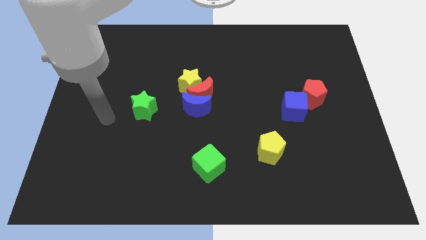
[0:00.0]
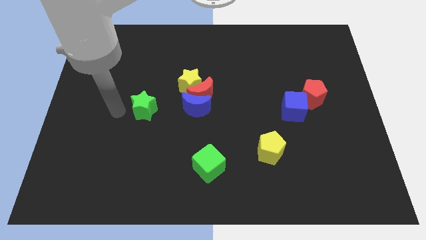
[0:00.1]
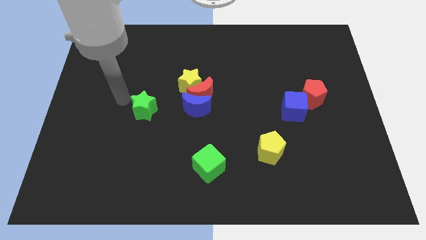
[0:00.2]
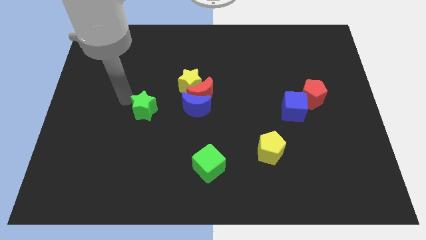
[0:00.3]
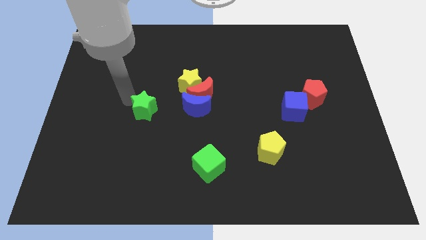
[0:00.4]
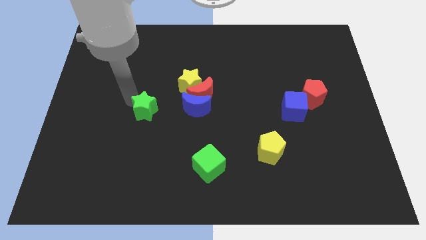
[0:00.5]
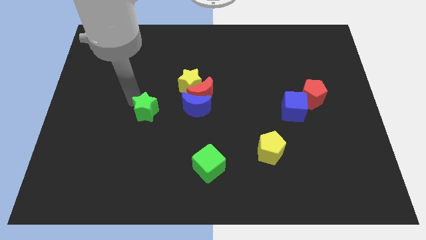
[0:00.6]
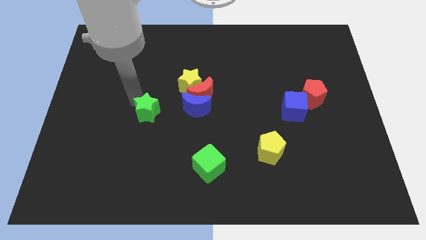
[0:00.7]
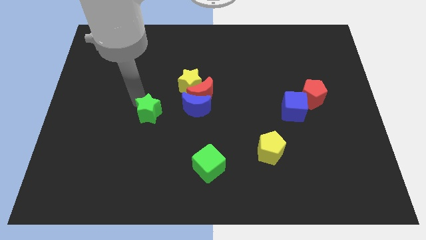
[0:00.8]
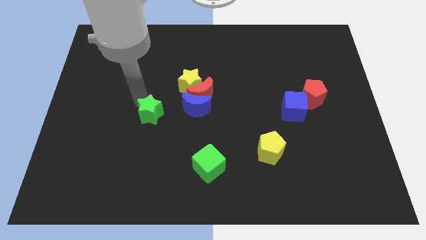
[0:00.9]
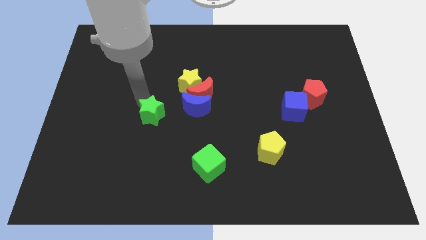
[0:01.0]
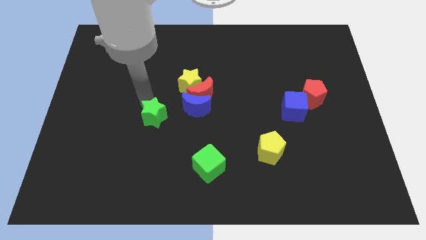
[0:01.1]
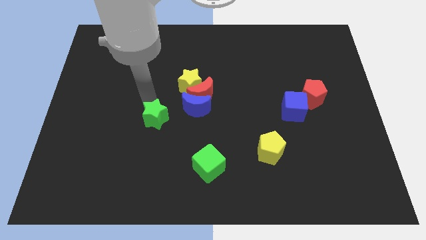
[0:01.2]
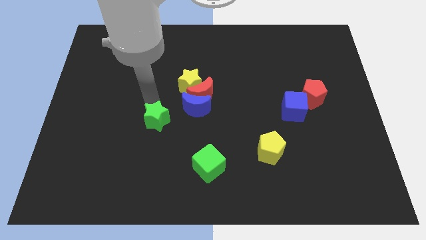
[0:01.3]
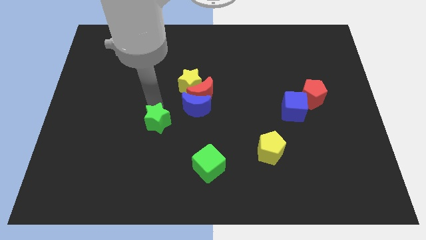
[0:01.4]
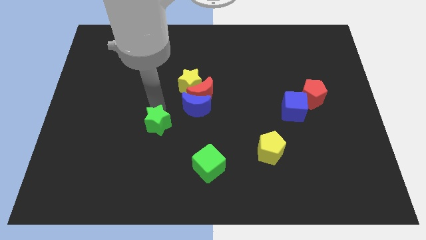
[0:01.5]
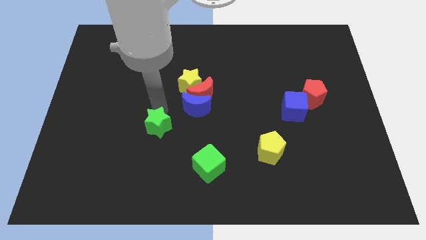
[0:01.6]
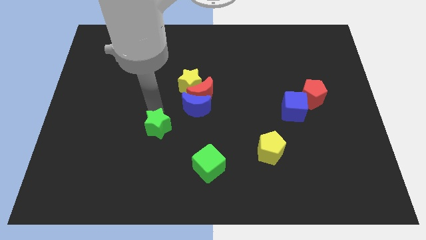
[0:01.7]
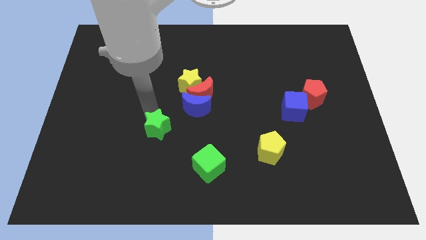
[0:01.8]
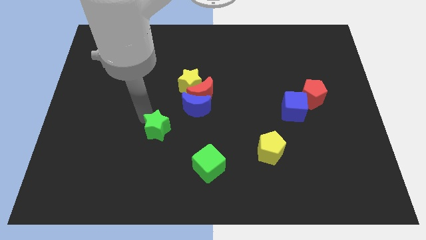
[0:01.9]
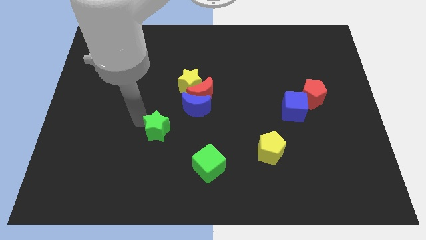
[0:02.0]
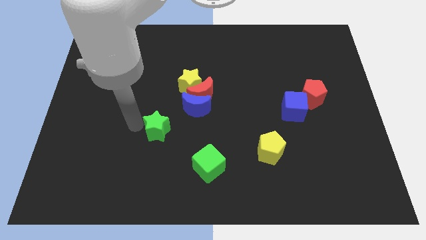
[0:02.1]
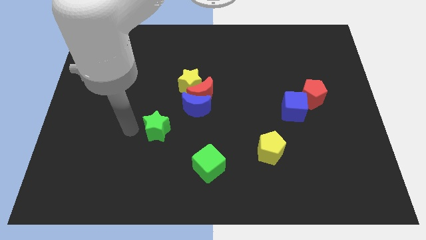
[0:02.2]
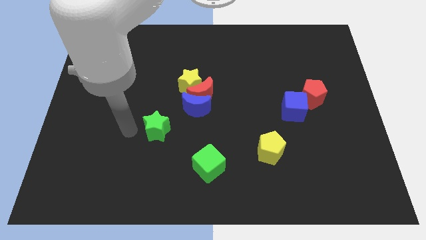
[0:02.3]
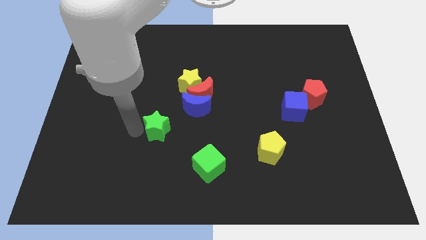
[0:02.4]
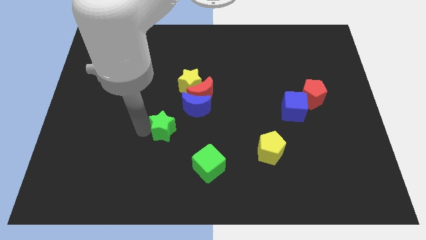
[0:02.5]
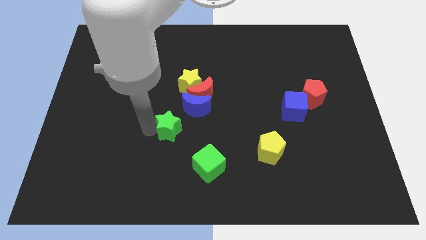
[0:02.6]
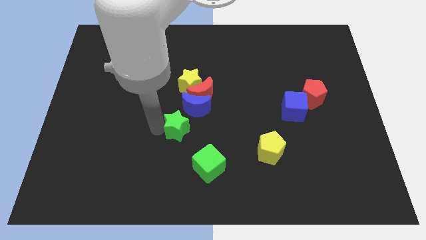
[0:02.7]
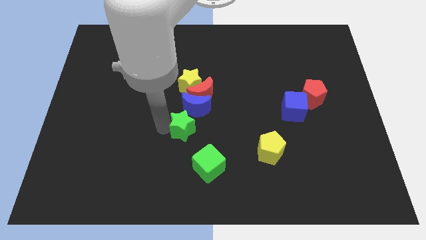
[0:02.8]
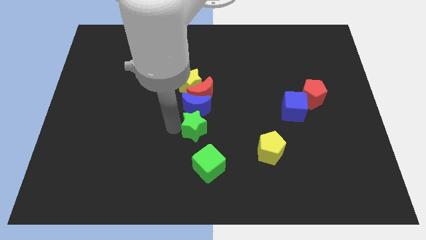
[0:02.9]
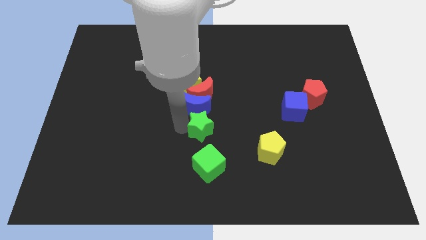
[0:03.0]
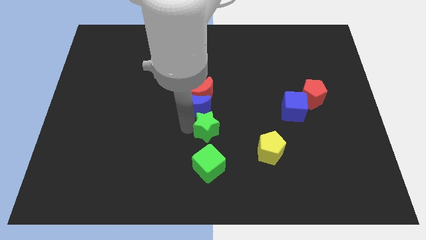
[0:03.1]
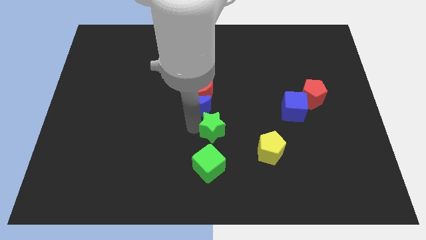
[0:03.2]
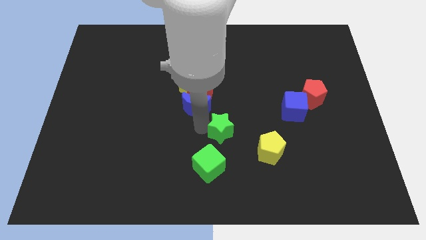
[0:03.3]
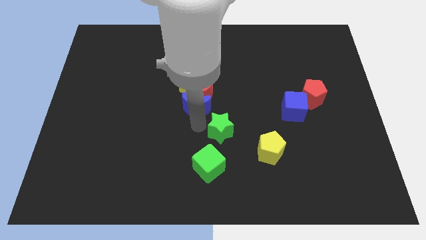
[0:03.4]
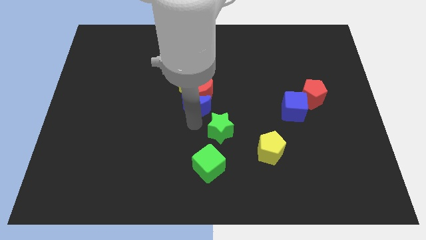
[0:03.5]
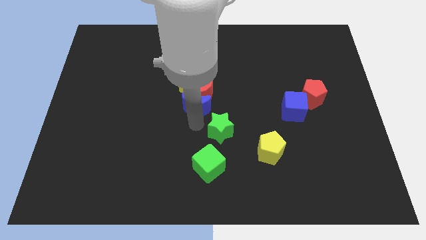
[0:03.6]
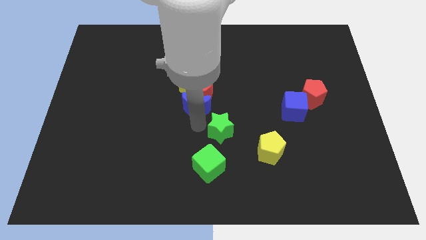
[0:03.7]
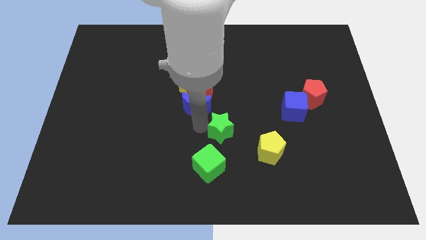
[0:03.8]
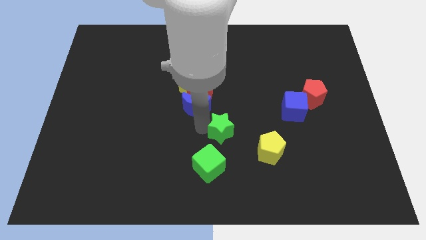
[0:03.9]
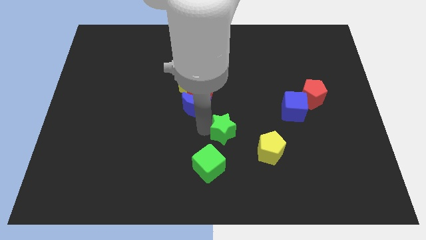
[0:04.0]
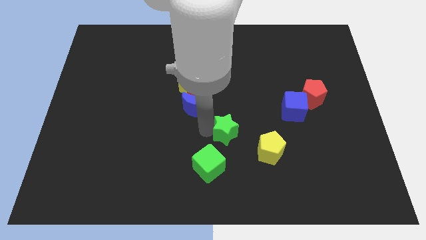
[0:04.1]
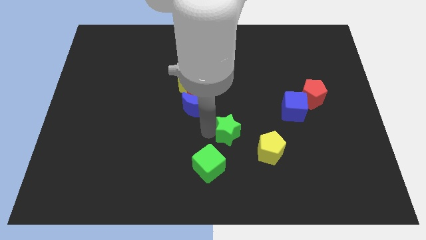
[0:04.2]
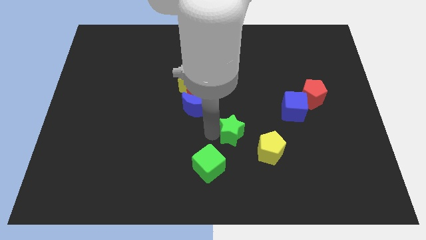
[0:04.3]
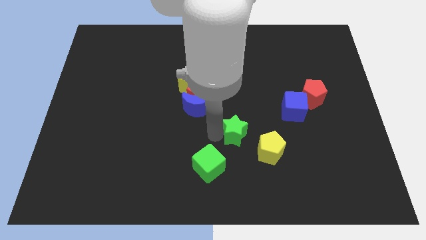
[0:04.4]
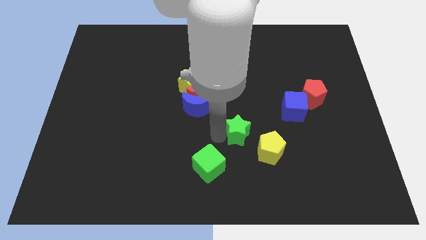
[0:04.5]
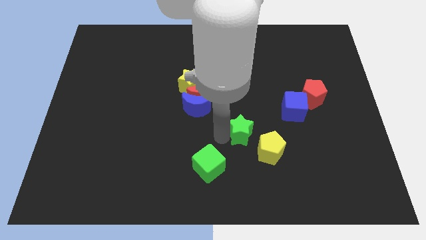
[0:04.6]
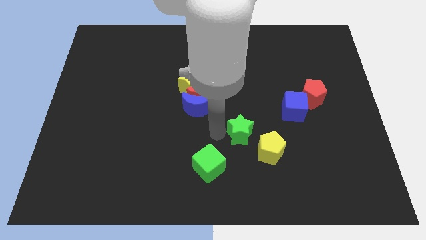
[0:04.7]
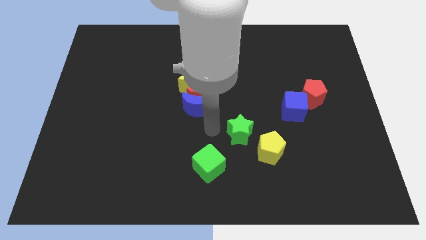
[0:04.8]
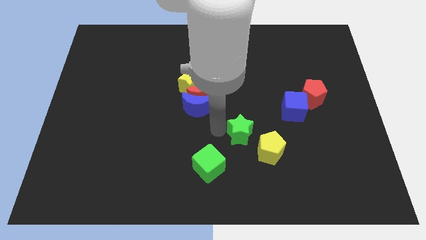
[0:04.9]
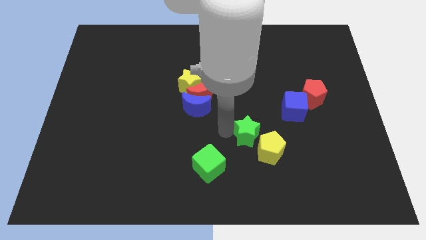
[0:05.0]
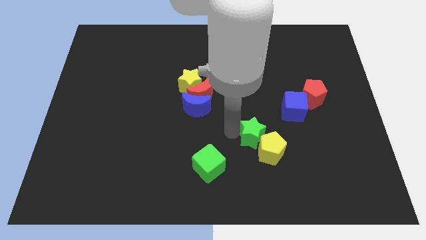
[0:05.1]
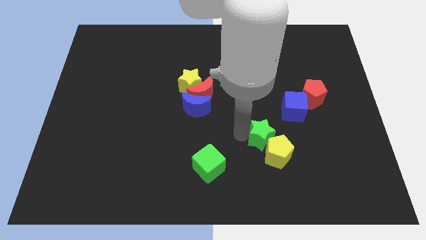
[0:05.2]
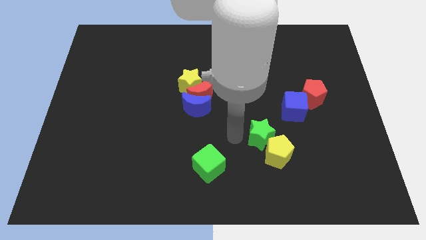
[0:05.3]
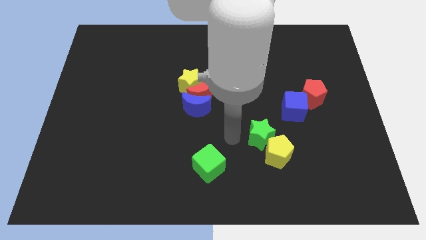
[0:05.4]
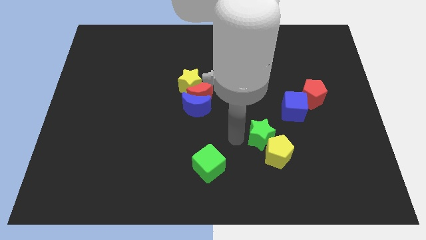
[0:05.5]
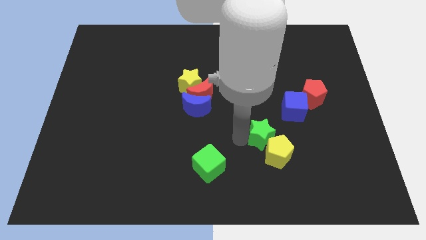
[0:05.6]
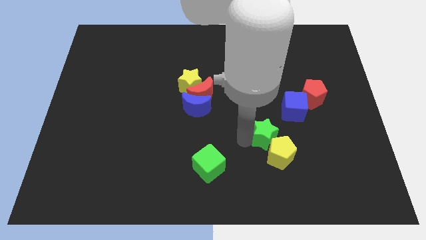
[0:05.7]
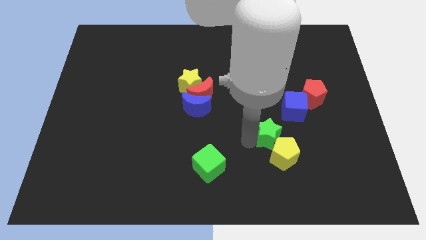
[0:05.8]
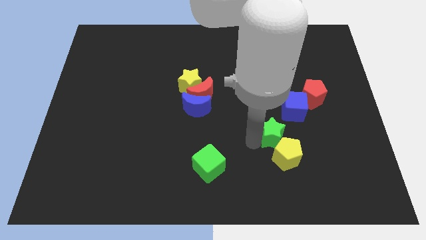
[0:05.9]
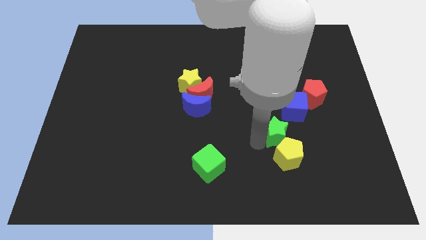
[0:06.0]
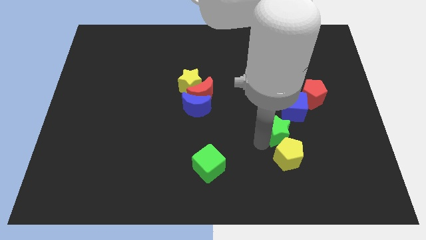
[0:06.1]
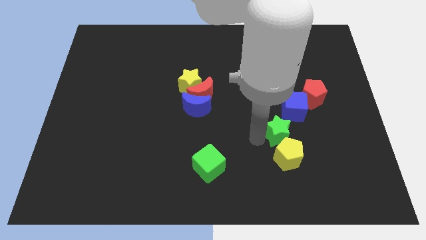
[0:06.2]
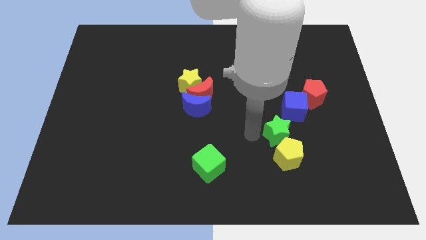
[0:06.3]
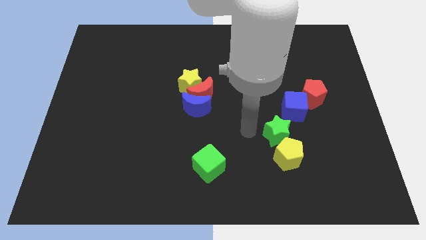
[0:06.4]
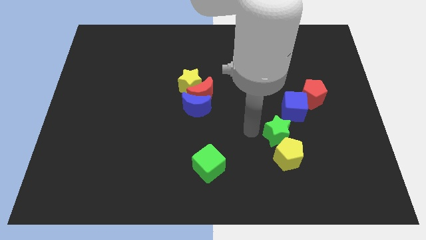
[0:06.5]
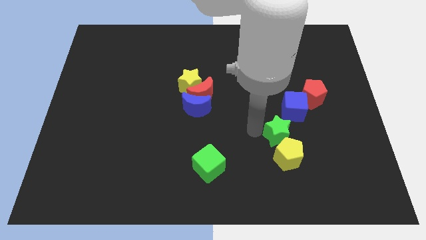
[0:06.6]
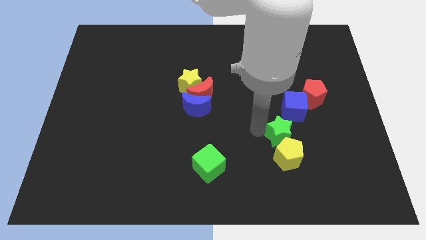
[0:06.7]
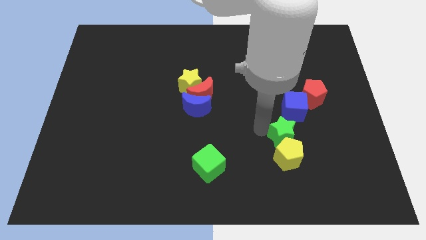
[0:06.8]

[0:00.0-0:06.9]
put the green star to the top right of the yellow pentagon

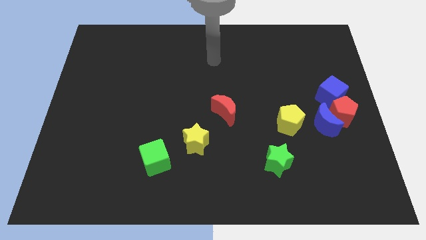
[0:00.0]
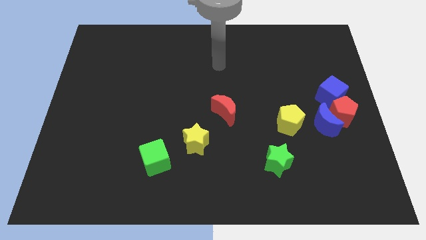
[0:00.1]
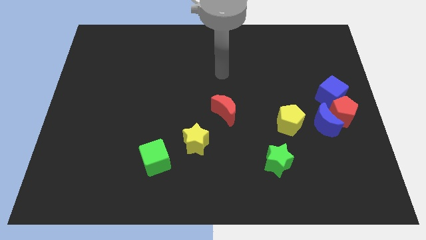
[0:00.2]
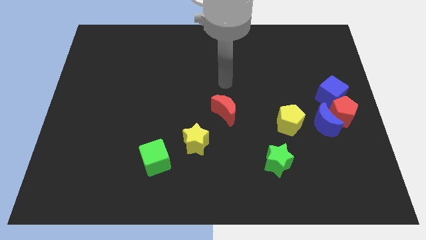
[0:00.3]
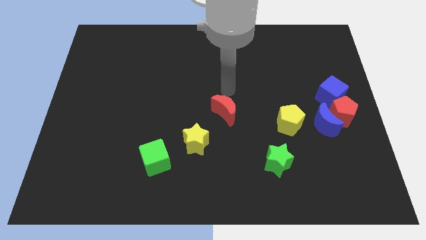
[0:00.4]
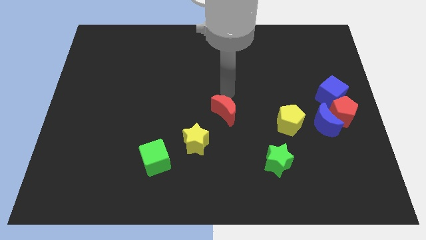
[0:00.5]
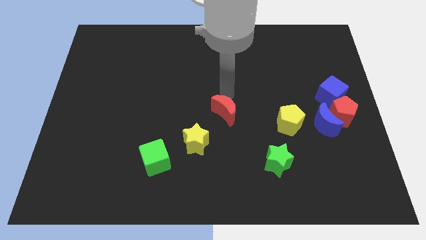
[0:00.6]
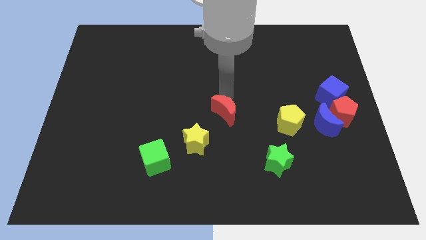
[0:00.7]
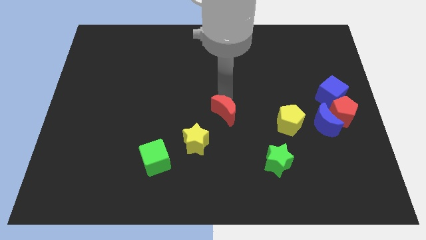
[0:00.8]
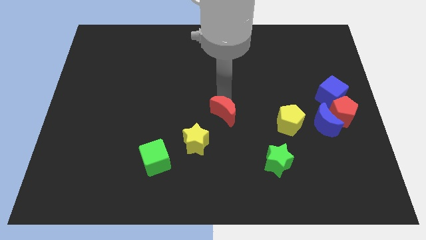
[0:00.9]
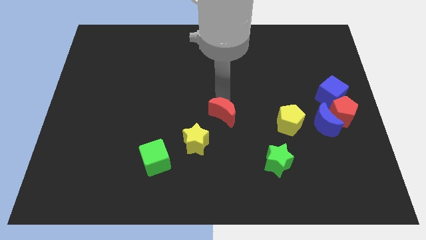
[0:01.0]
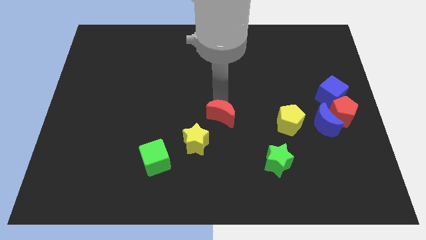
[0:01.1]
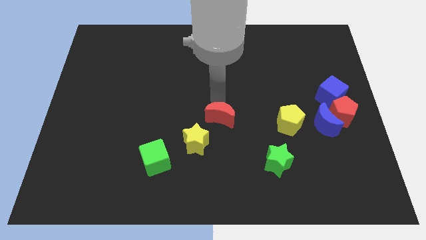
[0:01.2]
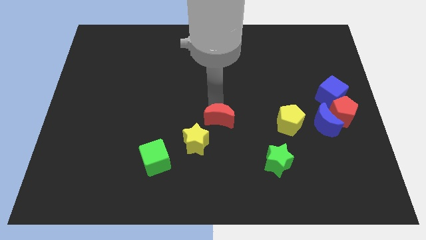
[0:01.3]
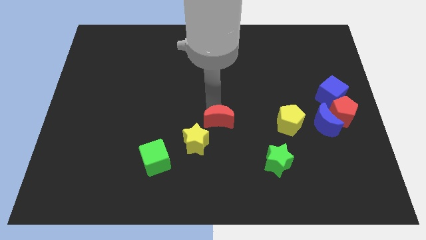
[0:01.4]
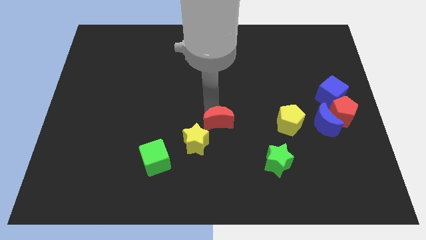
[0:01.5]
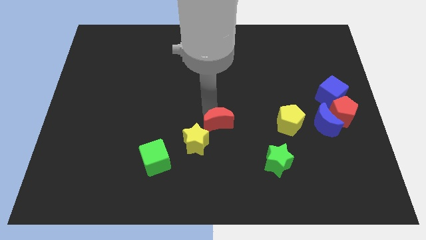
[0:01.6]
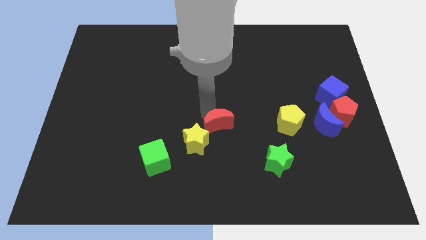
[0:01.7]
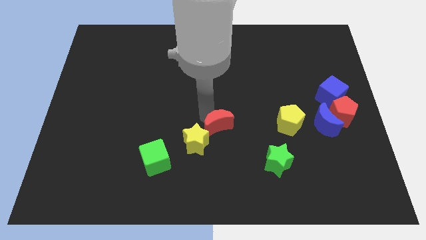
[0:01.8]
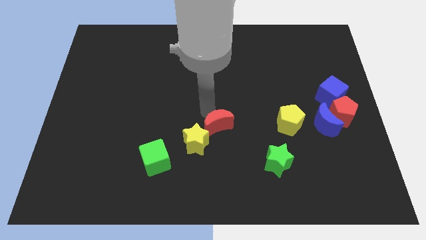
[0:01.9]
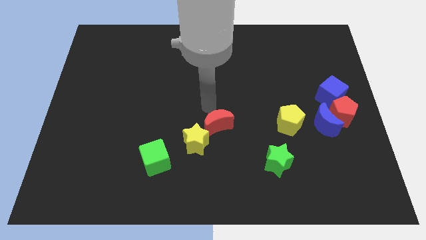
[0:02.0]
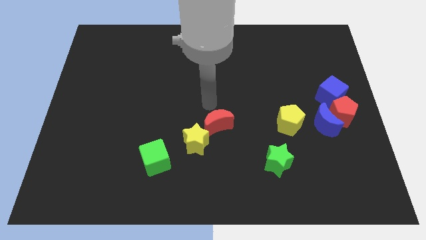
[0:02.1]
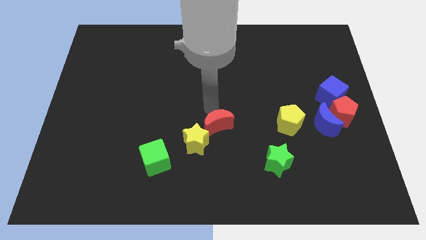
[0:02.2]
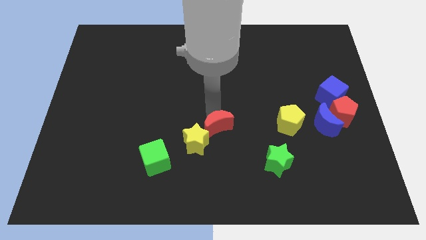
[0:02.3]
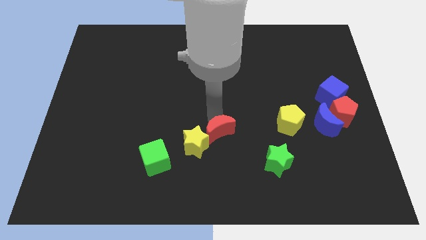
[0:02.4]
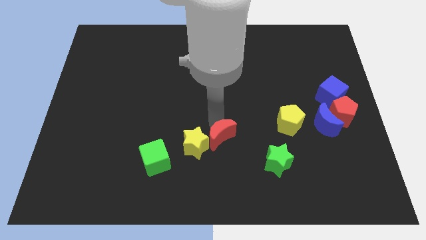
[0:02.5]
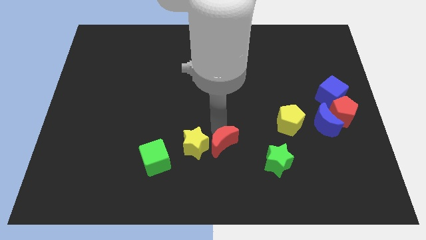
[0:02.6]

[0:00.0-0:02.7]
push the red moon to the left of the green star
